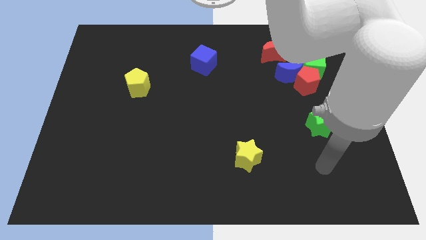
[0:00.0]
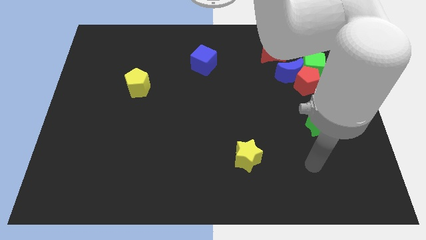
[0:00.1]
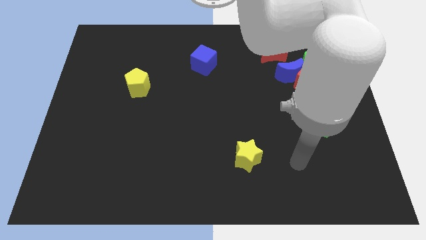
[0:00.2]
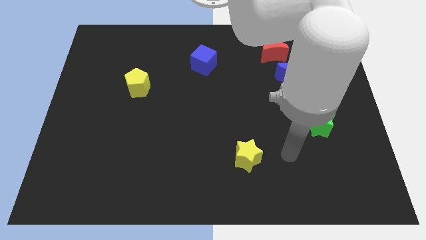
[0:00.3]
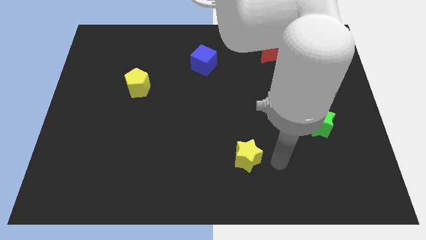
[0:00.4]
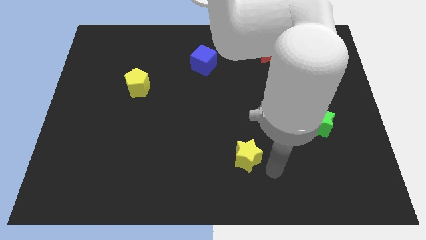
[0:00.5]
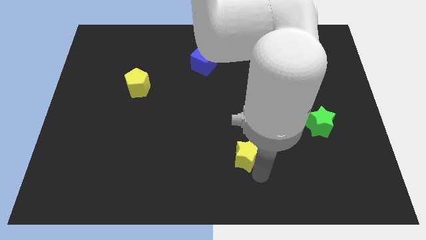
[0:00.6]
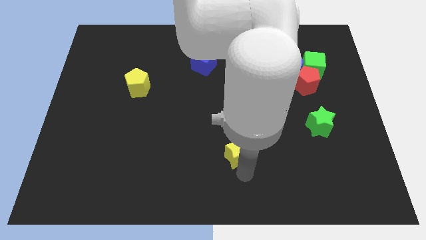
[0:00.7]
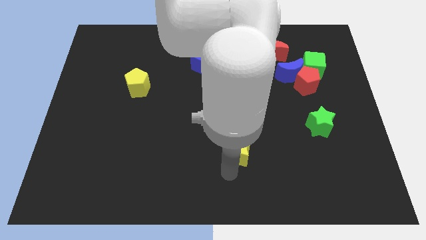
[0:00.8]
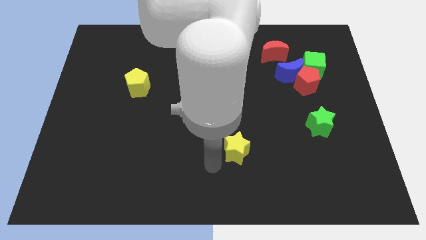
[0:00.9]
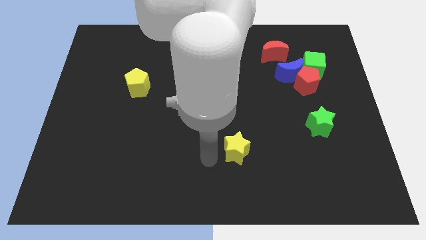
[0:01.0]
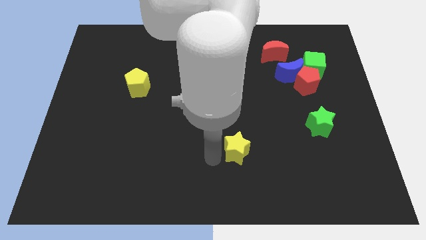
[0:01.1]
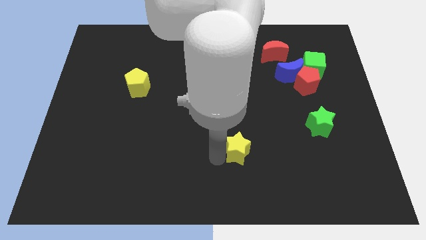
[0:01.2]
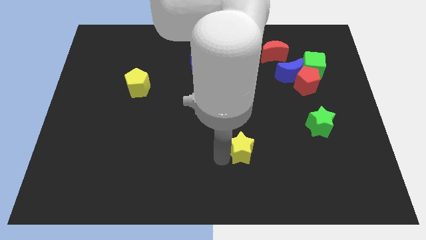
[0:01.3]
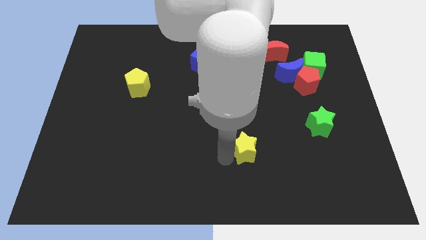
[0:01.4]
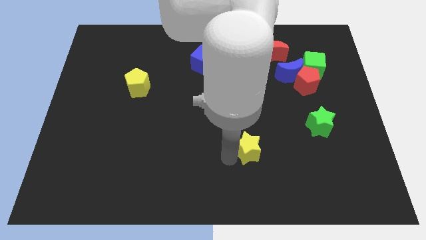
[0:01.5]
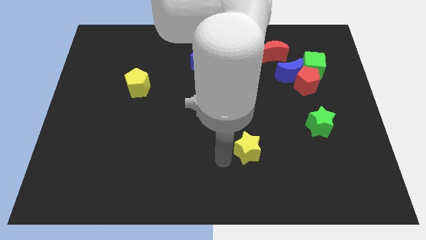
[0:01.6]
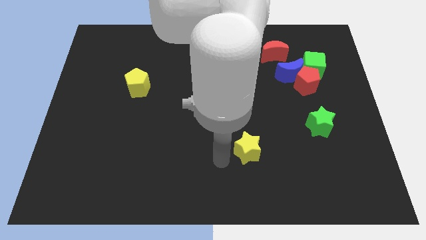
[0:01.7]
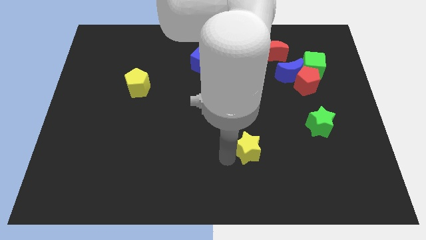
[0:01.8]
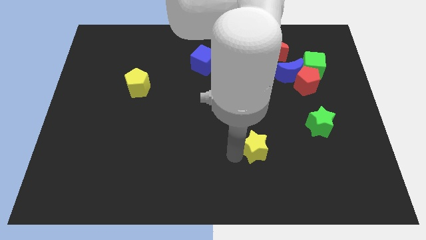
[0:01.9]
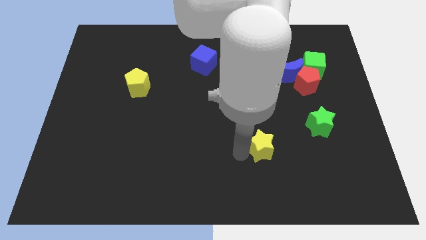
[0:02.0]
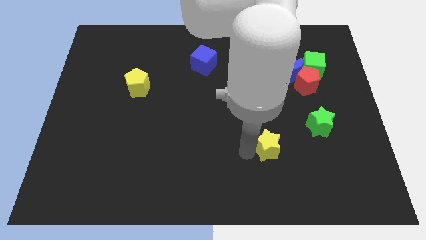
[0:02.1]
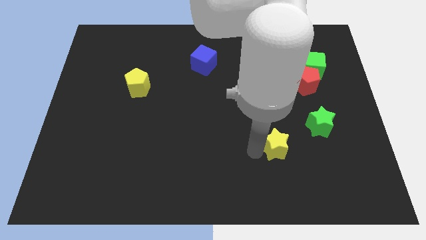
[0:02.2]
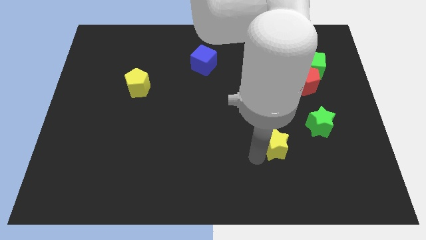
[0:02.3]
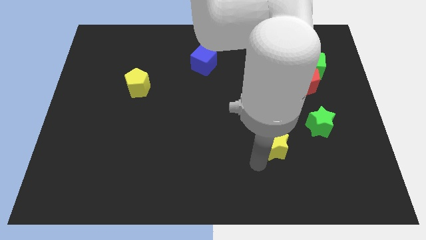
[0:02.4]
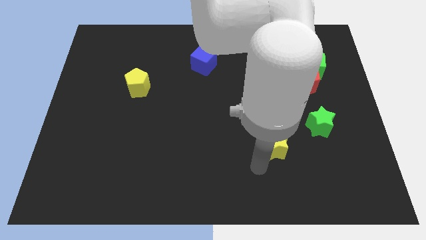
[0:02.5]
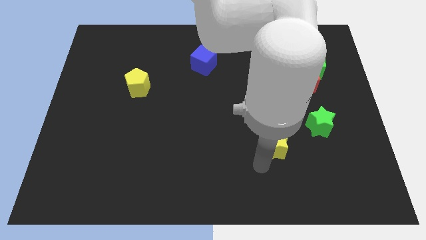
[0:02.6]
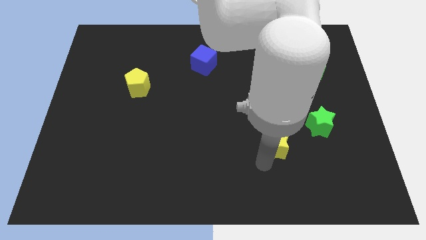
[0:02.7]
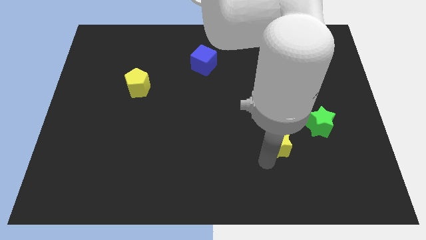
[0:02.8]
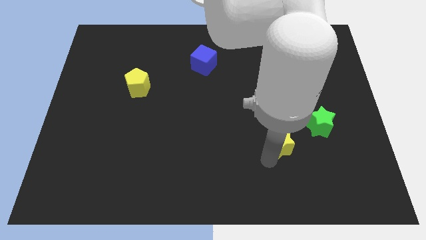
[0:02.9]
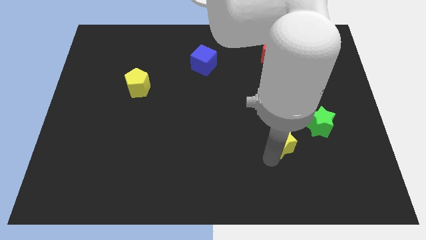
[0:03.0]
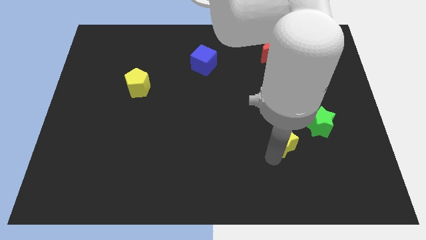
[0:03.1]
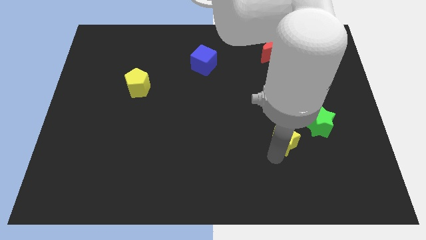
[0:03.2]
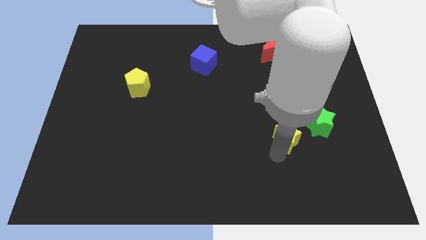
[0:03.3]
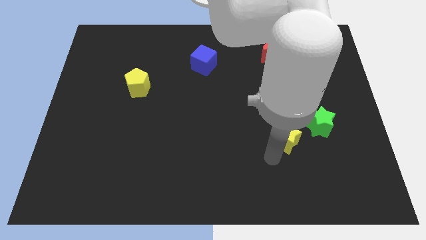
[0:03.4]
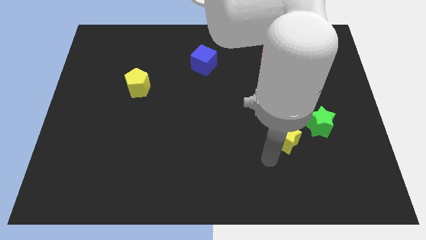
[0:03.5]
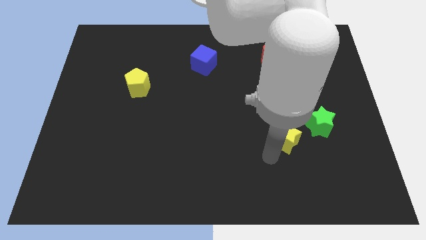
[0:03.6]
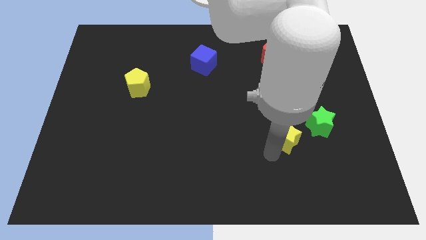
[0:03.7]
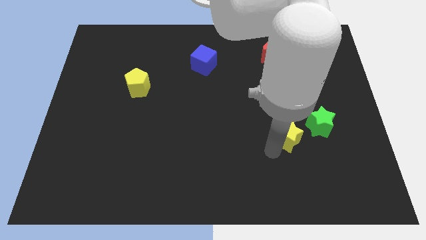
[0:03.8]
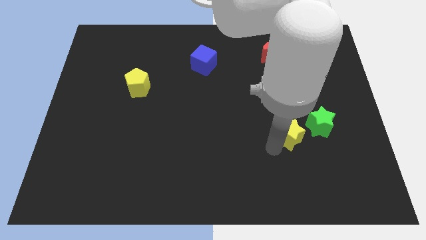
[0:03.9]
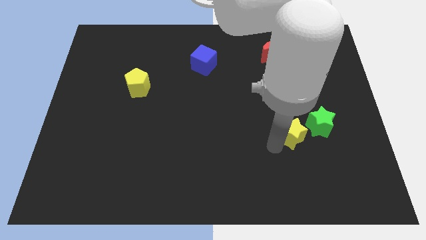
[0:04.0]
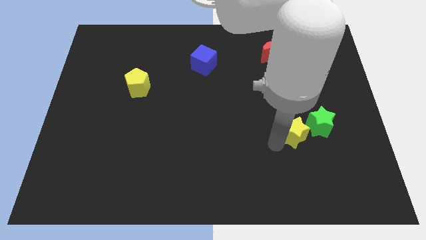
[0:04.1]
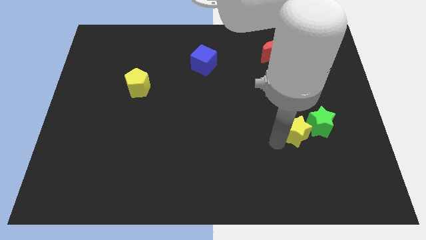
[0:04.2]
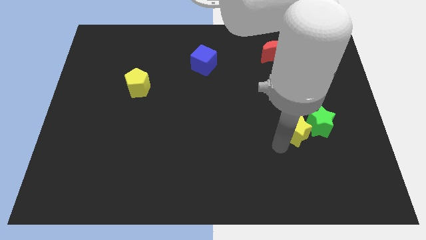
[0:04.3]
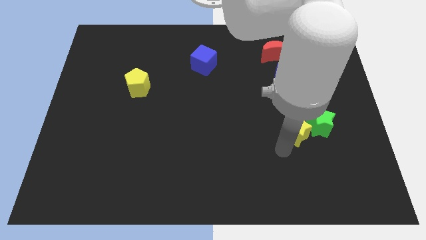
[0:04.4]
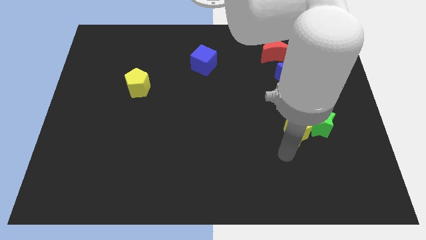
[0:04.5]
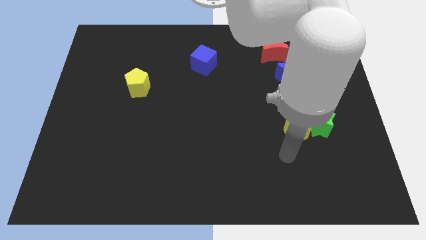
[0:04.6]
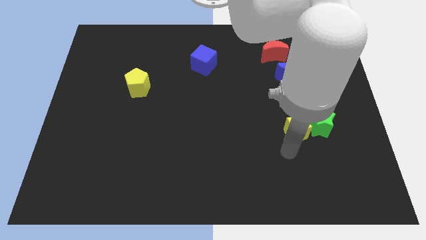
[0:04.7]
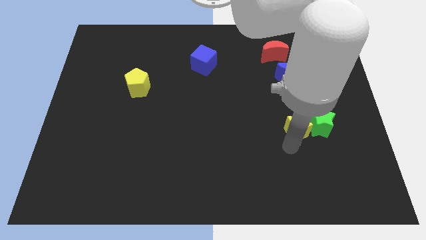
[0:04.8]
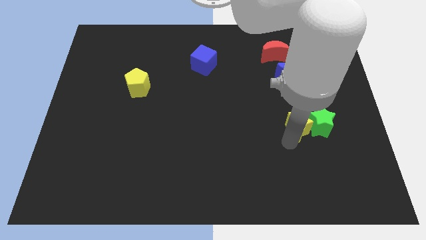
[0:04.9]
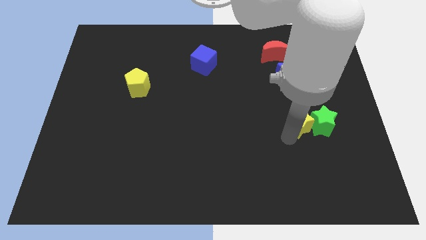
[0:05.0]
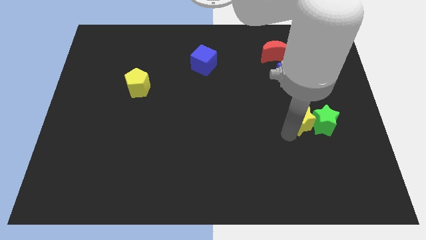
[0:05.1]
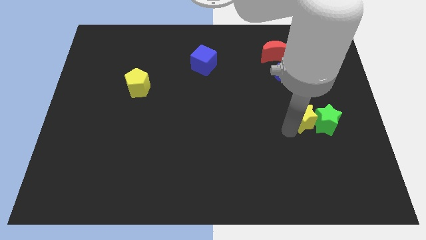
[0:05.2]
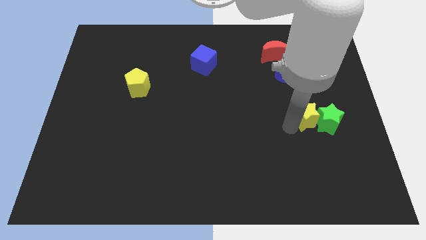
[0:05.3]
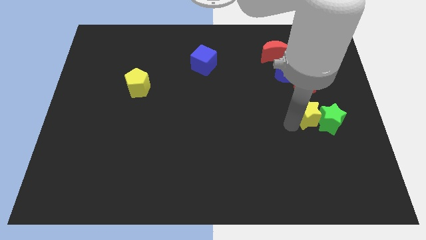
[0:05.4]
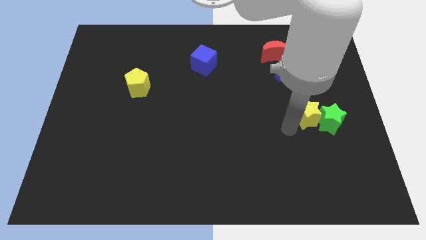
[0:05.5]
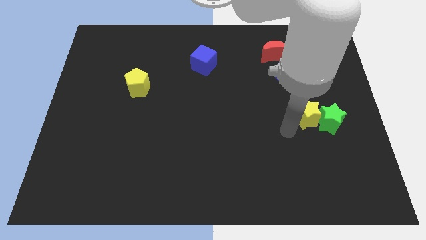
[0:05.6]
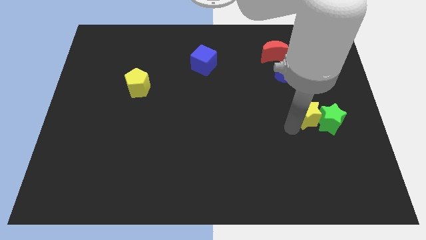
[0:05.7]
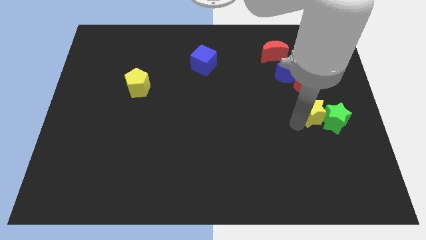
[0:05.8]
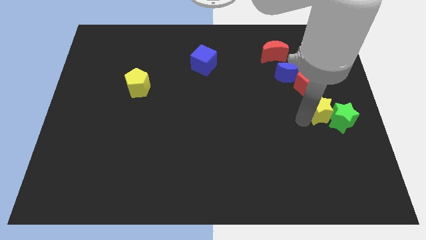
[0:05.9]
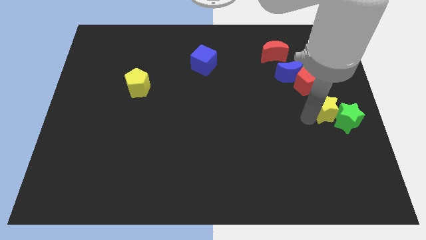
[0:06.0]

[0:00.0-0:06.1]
put the yellow star to the right side of the board

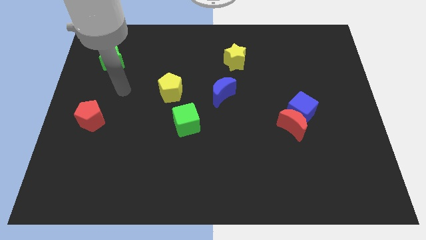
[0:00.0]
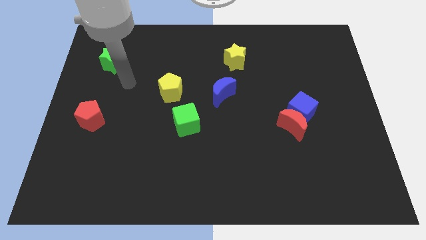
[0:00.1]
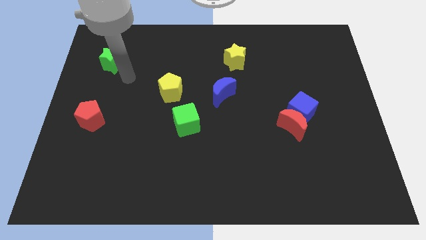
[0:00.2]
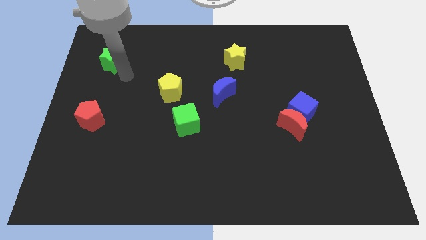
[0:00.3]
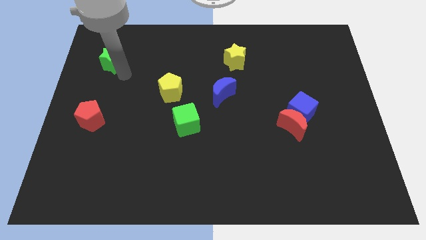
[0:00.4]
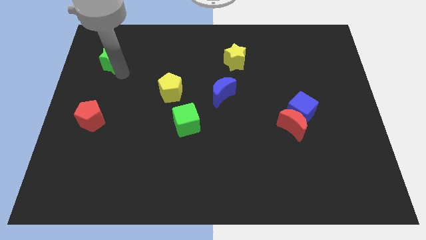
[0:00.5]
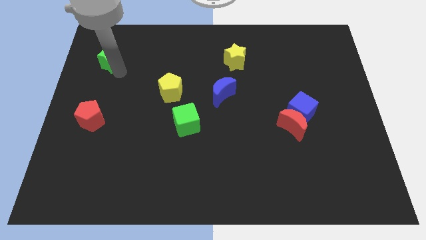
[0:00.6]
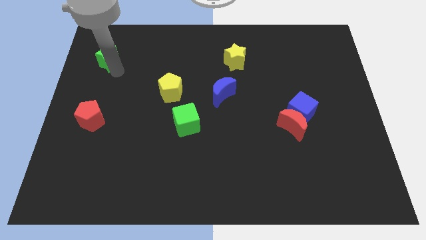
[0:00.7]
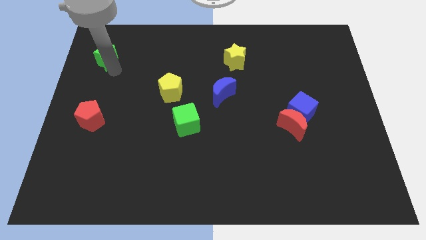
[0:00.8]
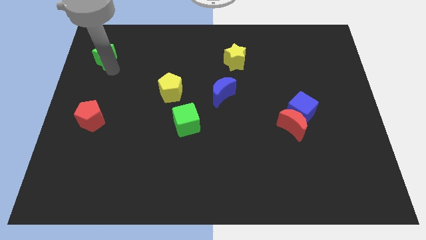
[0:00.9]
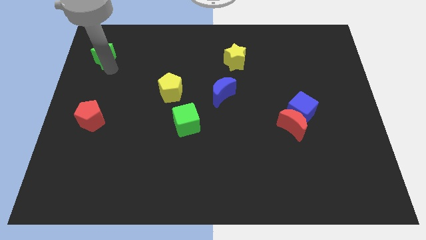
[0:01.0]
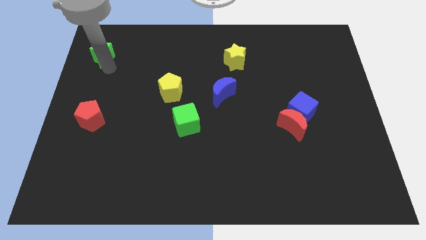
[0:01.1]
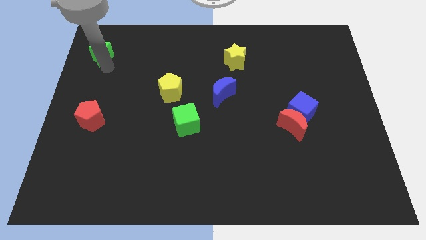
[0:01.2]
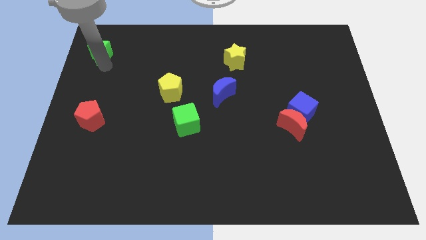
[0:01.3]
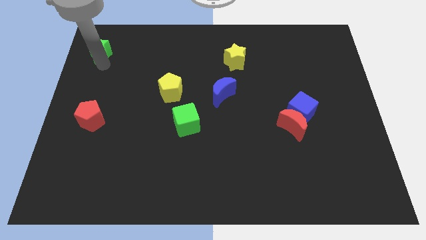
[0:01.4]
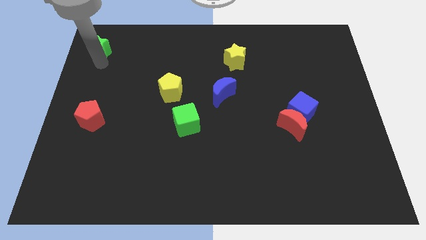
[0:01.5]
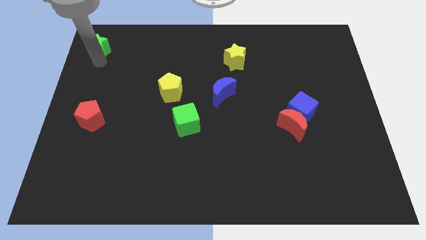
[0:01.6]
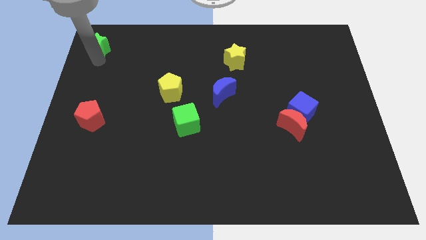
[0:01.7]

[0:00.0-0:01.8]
push the green star to the upper left corner
